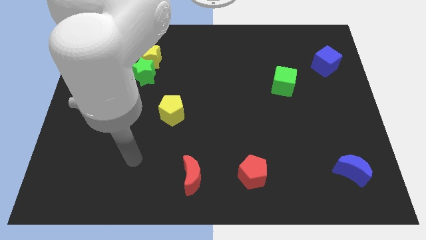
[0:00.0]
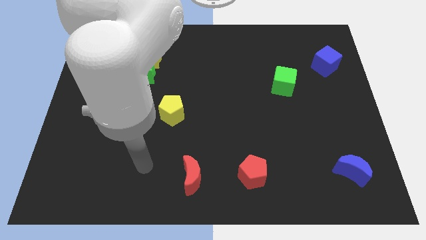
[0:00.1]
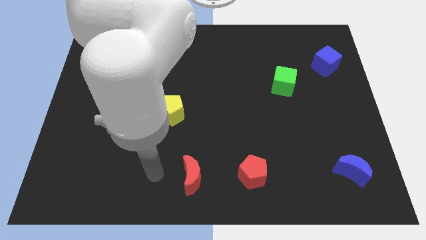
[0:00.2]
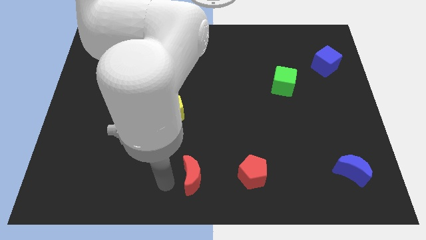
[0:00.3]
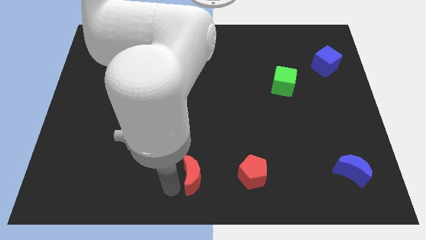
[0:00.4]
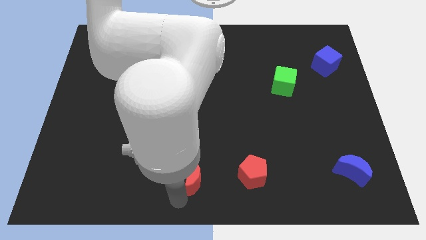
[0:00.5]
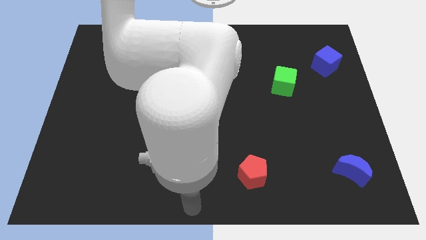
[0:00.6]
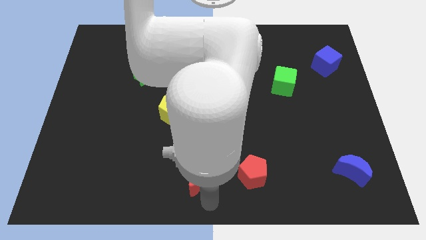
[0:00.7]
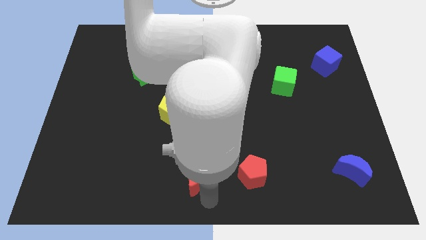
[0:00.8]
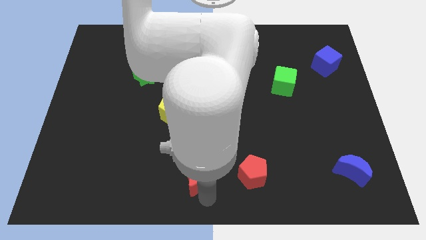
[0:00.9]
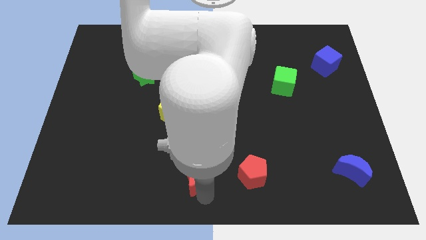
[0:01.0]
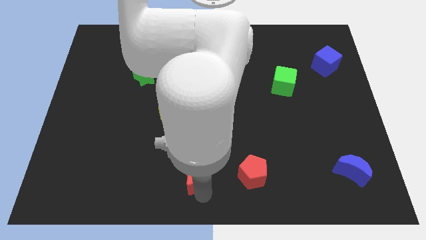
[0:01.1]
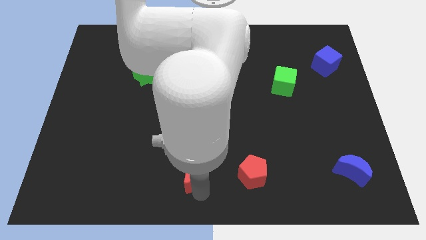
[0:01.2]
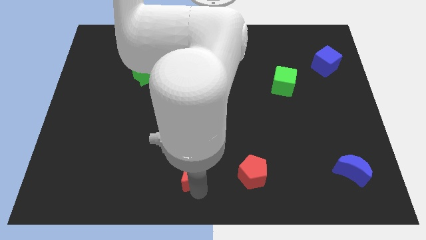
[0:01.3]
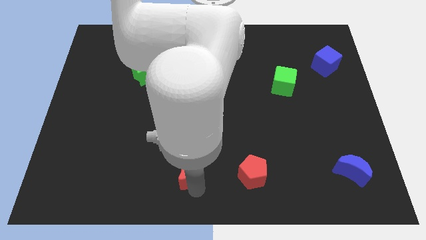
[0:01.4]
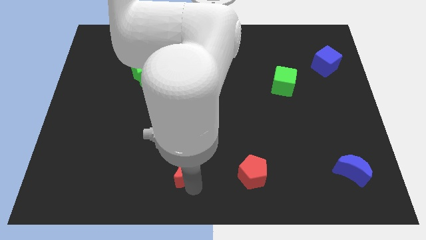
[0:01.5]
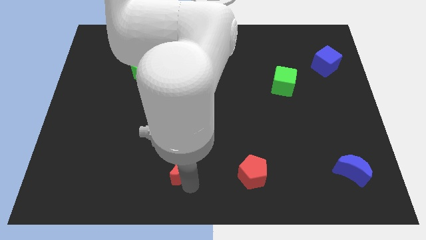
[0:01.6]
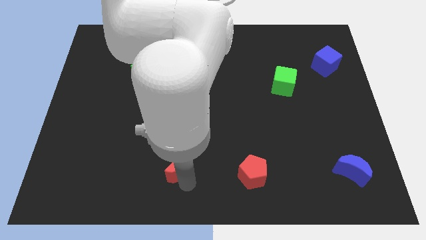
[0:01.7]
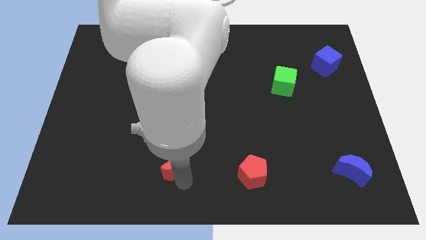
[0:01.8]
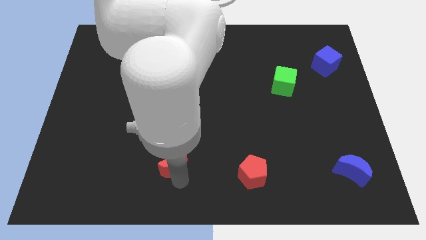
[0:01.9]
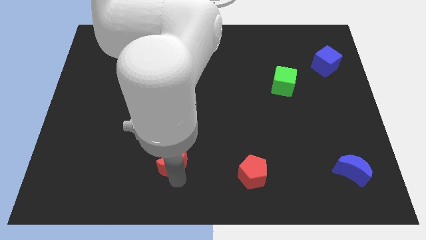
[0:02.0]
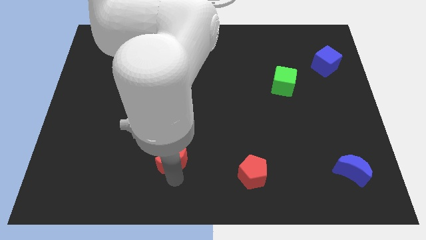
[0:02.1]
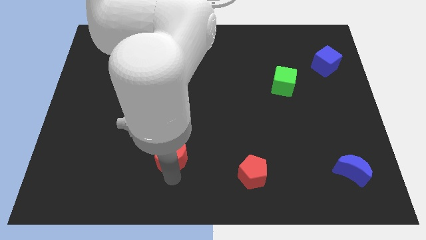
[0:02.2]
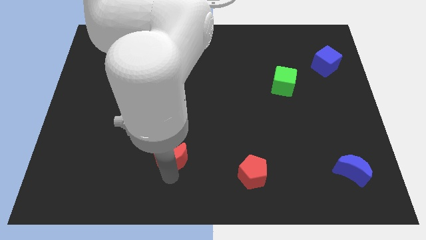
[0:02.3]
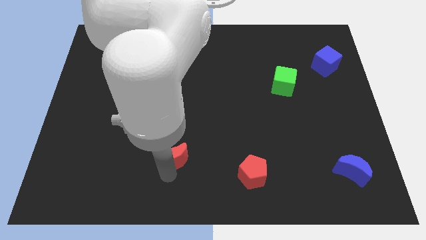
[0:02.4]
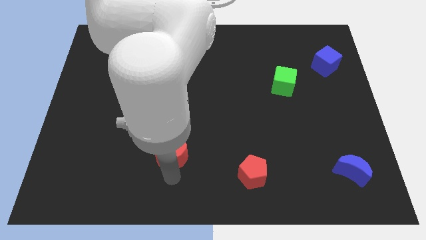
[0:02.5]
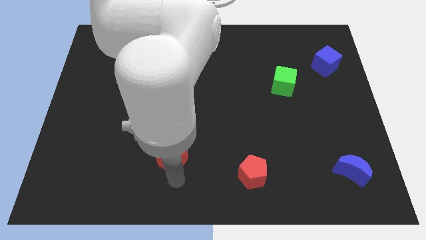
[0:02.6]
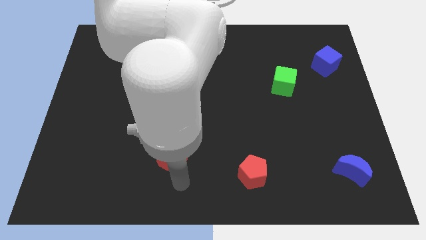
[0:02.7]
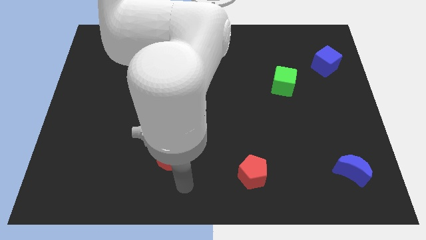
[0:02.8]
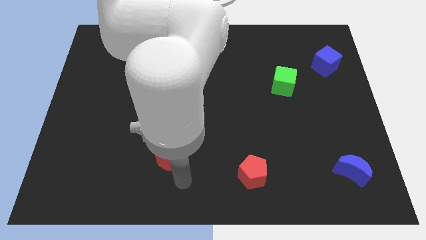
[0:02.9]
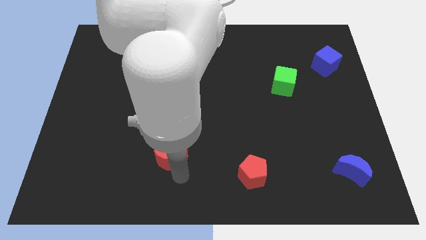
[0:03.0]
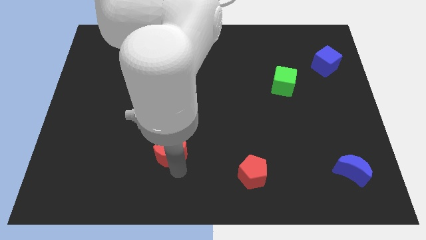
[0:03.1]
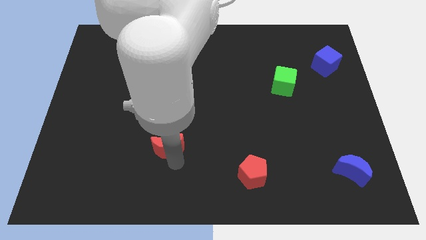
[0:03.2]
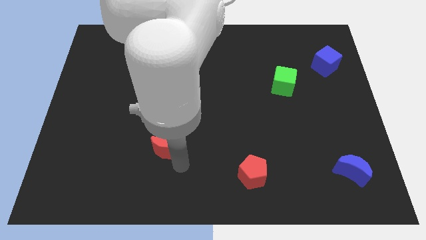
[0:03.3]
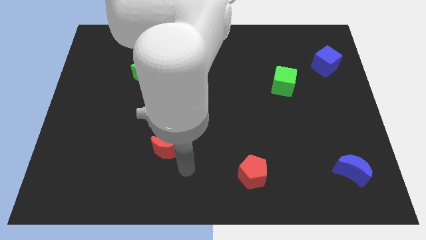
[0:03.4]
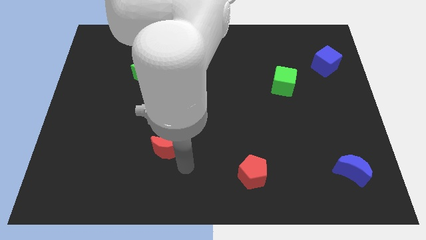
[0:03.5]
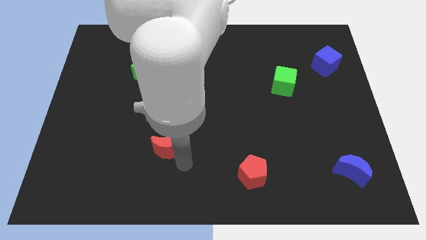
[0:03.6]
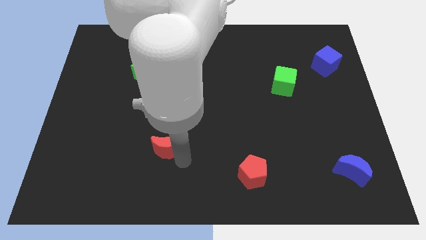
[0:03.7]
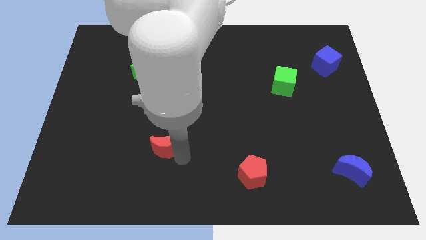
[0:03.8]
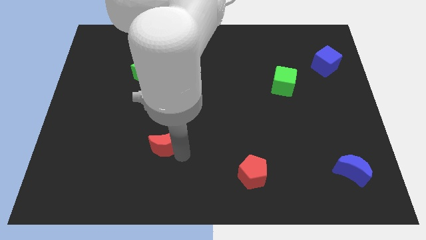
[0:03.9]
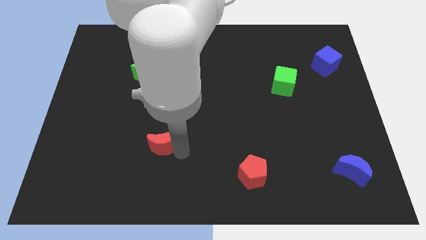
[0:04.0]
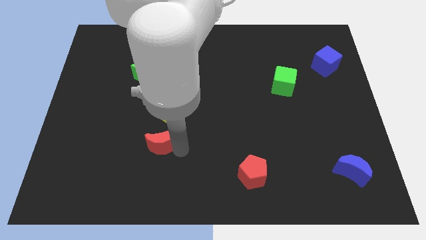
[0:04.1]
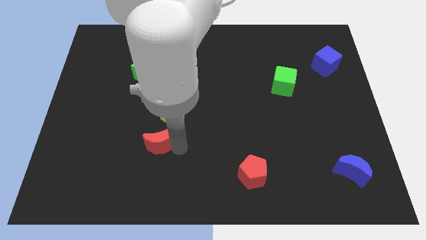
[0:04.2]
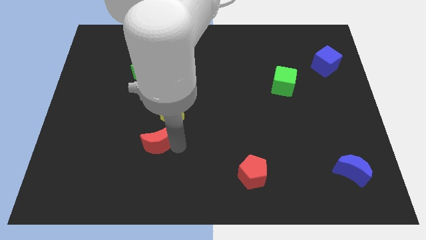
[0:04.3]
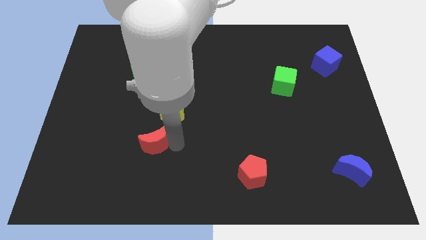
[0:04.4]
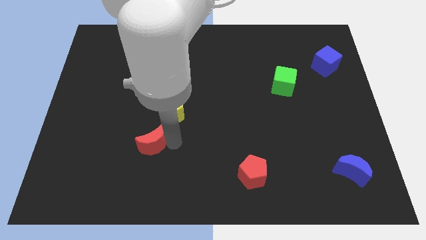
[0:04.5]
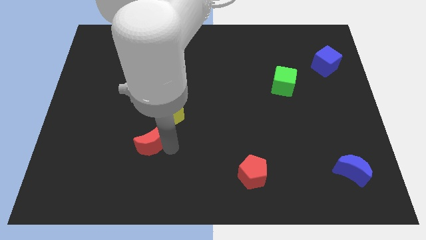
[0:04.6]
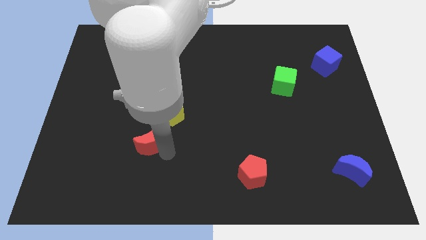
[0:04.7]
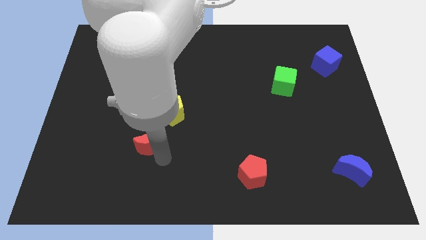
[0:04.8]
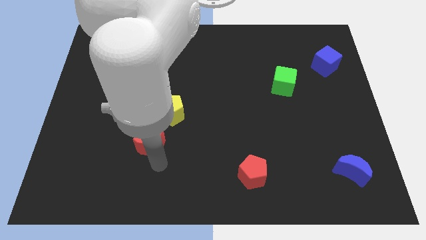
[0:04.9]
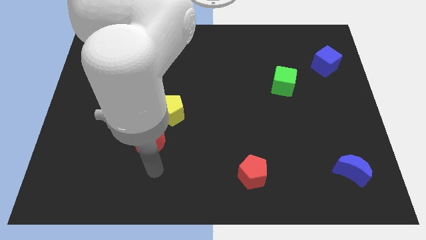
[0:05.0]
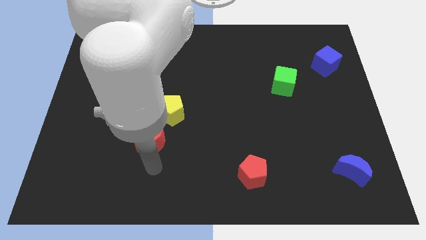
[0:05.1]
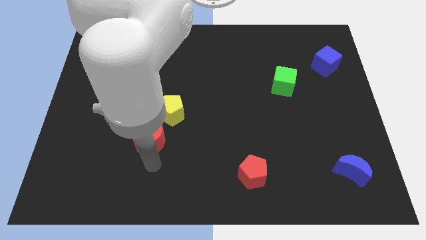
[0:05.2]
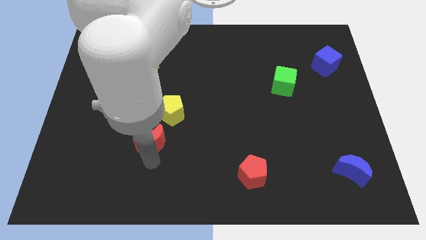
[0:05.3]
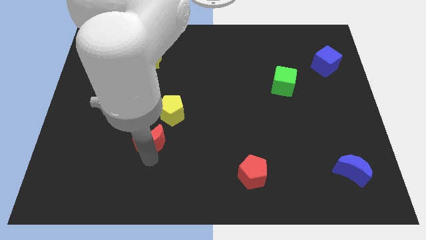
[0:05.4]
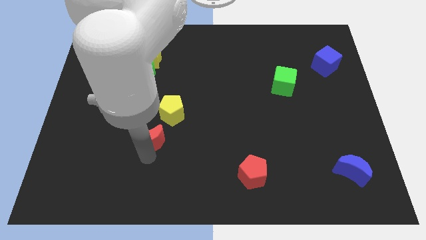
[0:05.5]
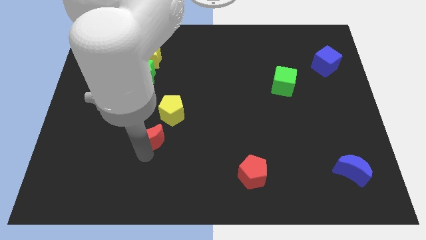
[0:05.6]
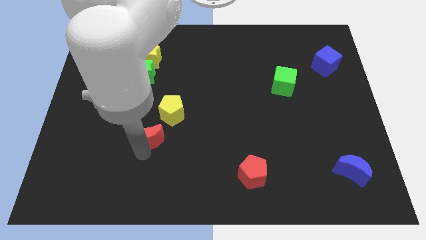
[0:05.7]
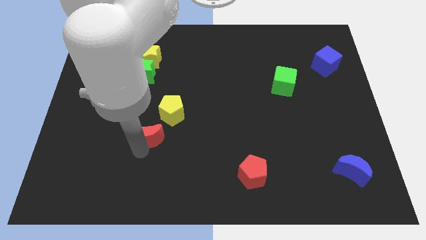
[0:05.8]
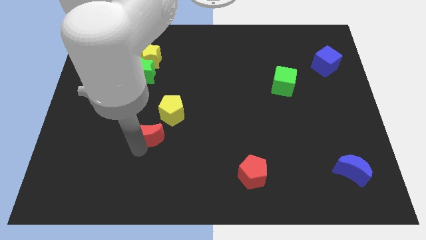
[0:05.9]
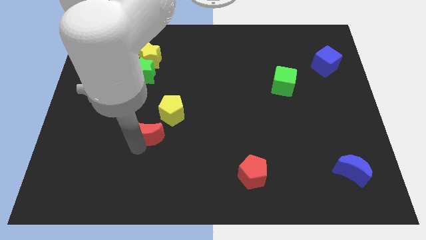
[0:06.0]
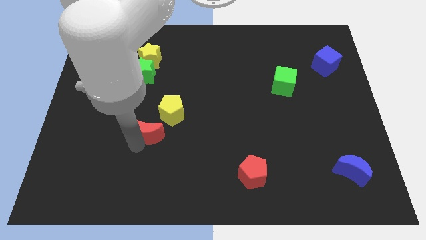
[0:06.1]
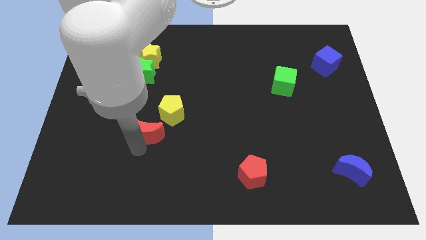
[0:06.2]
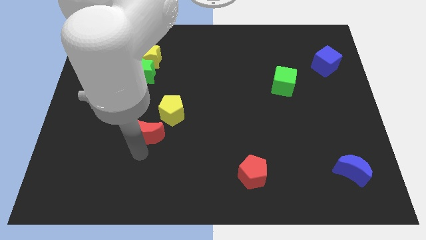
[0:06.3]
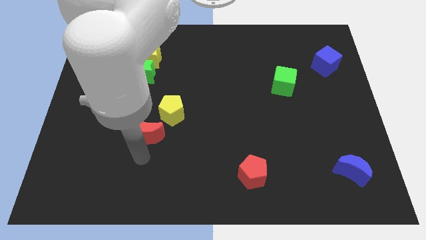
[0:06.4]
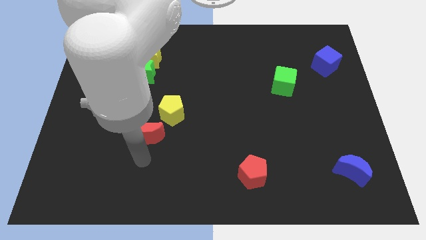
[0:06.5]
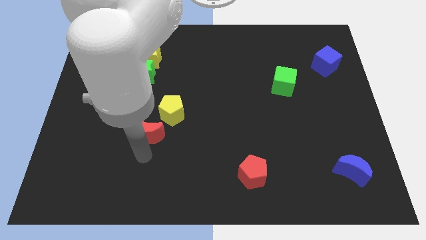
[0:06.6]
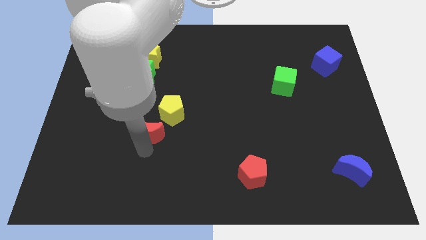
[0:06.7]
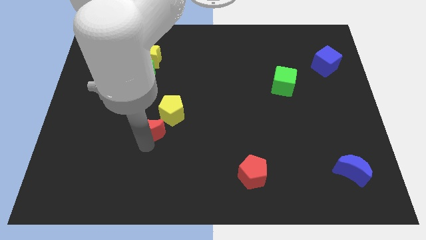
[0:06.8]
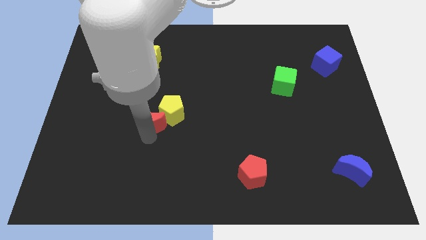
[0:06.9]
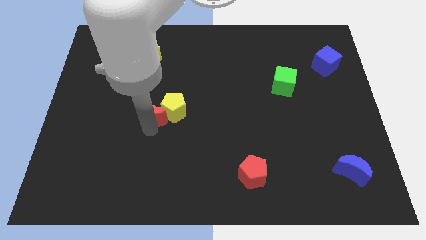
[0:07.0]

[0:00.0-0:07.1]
move the red moon to the top left side of the yellow pentagon

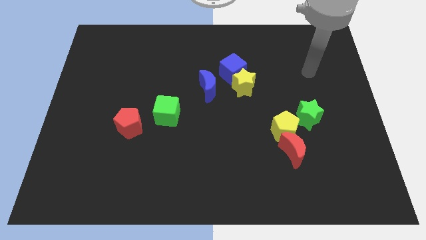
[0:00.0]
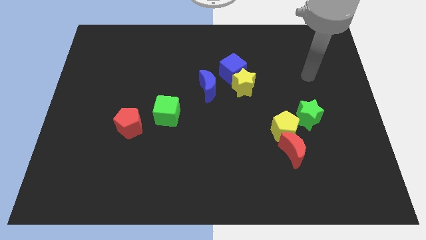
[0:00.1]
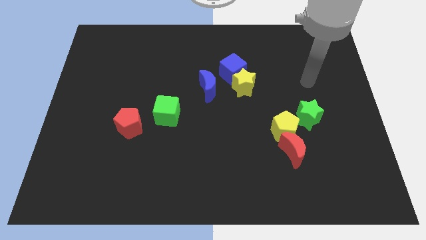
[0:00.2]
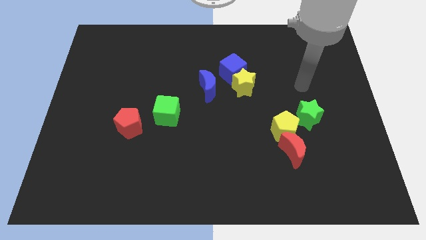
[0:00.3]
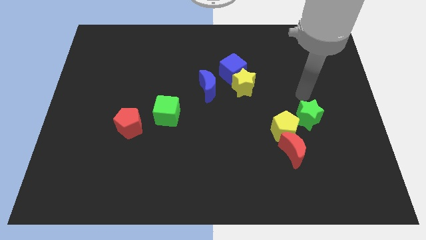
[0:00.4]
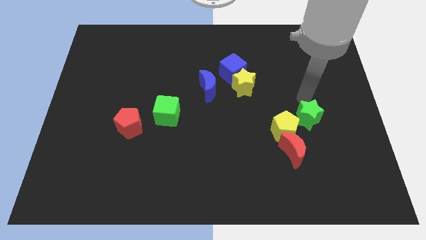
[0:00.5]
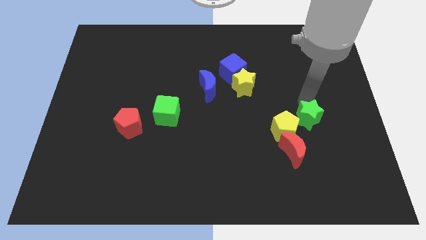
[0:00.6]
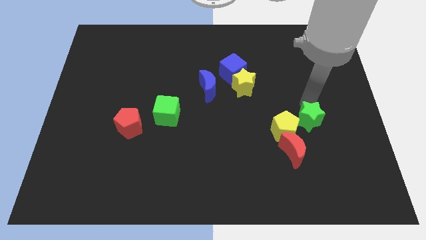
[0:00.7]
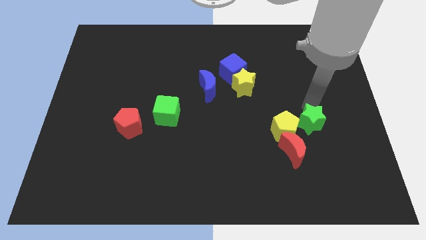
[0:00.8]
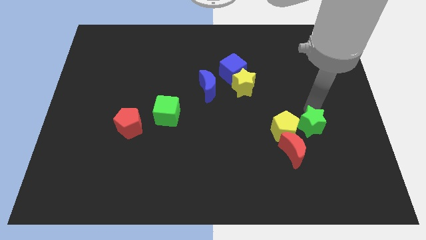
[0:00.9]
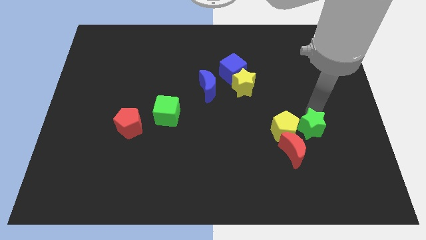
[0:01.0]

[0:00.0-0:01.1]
push the green star to the bottom right of the yellow pentagon
